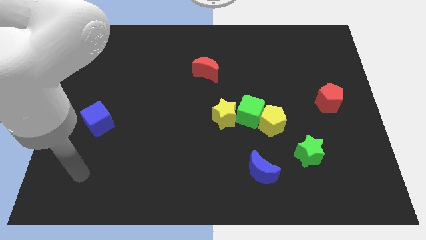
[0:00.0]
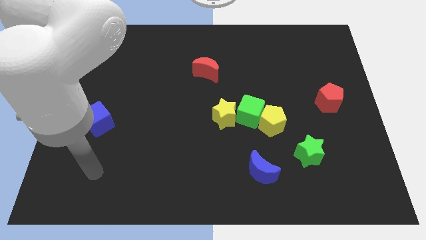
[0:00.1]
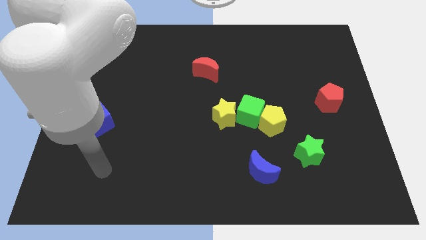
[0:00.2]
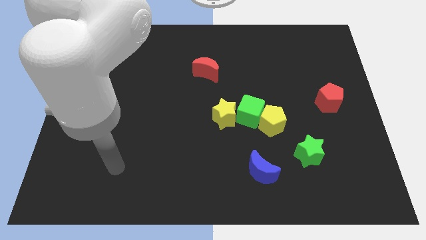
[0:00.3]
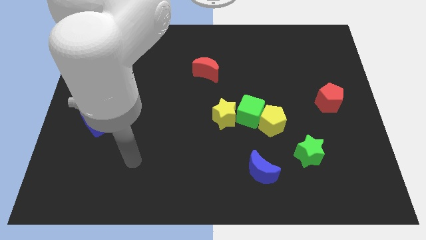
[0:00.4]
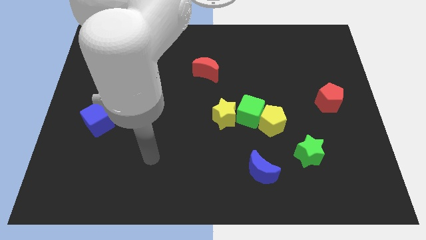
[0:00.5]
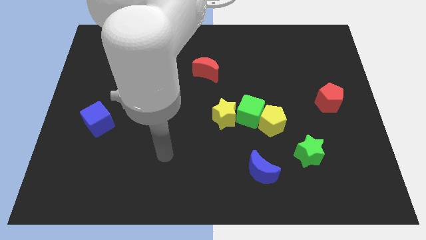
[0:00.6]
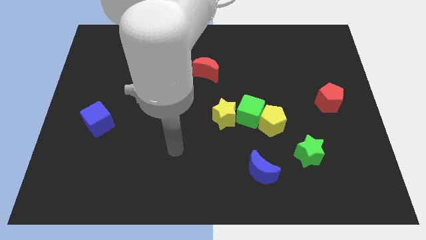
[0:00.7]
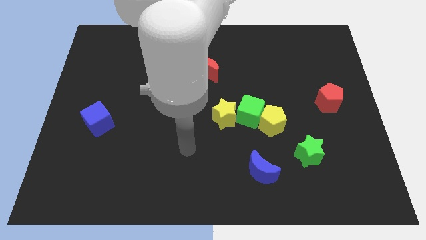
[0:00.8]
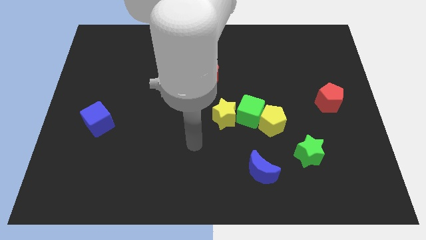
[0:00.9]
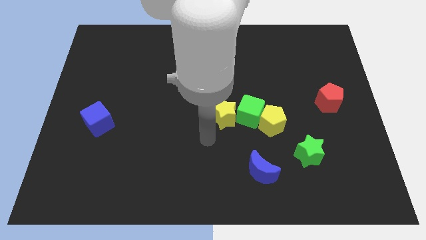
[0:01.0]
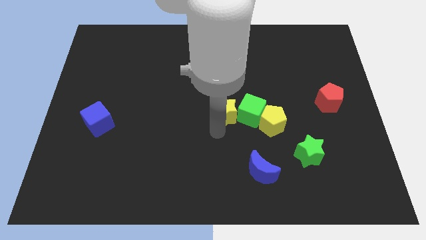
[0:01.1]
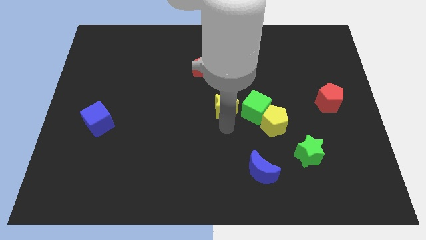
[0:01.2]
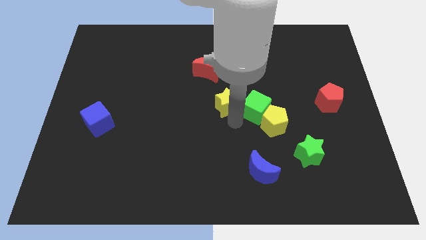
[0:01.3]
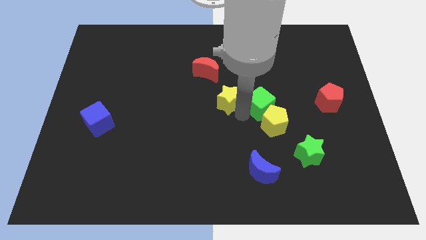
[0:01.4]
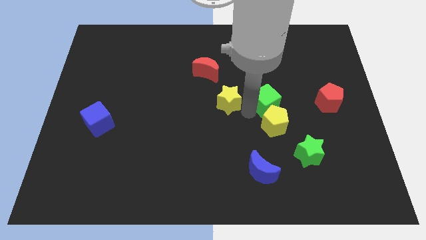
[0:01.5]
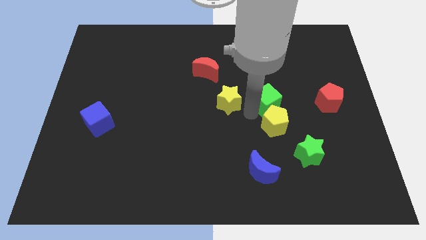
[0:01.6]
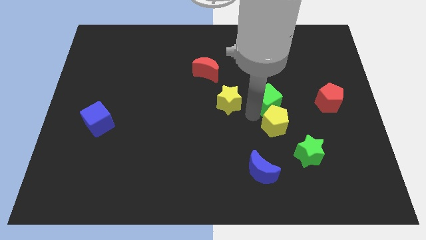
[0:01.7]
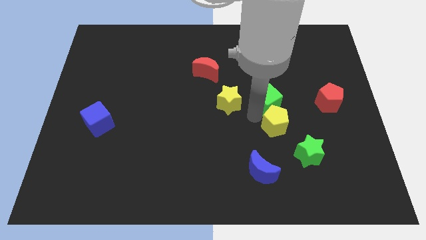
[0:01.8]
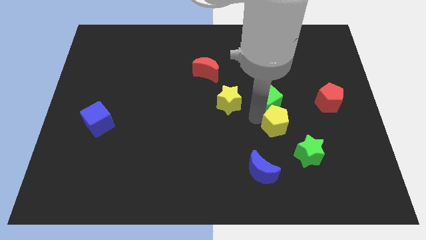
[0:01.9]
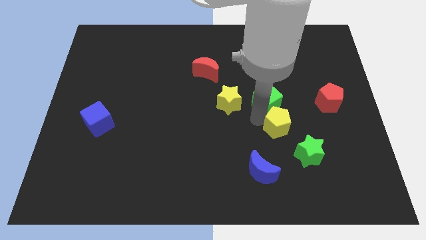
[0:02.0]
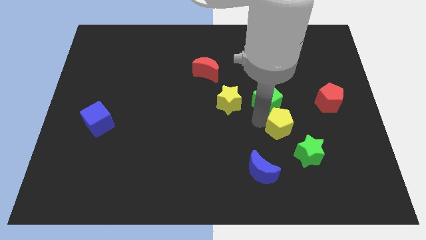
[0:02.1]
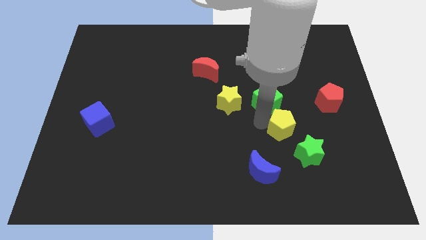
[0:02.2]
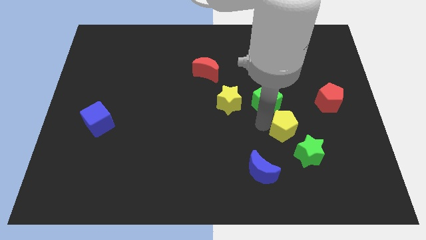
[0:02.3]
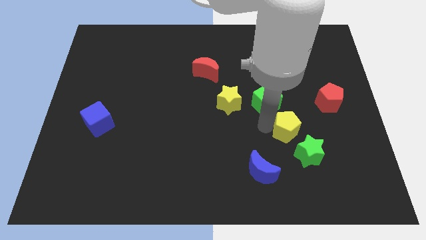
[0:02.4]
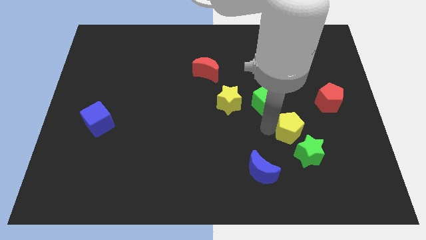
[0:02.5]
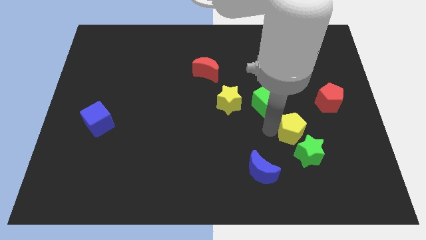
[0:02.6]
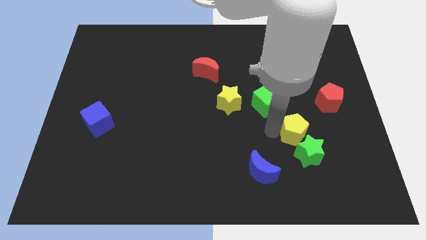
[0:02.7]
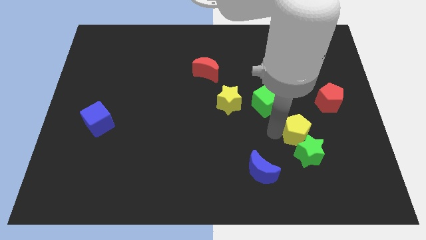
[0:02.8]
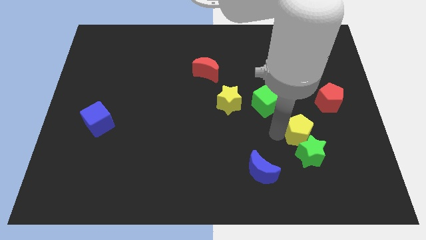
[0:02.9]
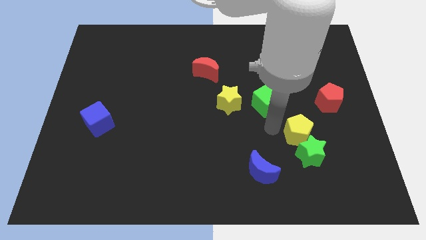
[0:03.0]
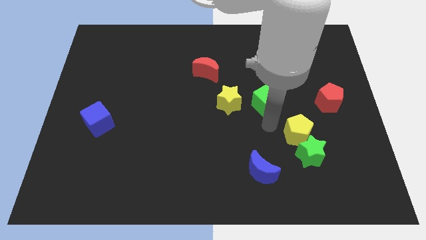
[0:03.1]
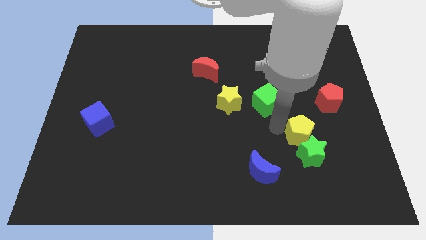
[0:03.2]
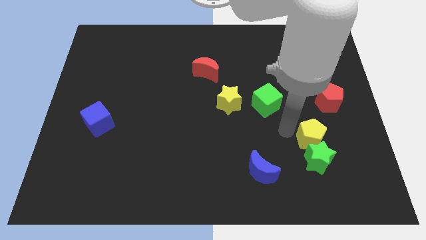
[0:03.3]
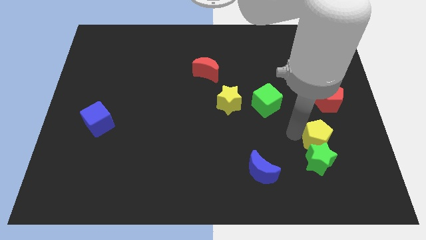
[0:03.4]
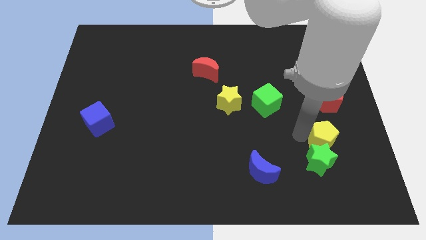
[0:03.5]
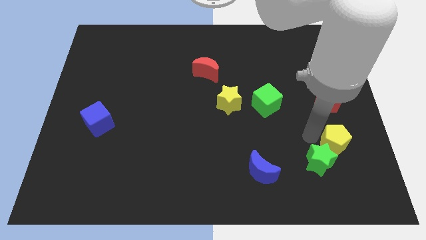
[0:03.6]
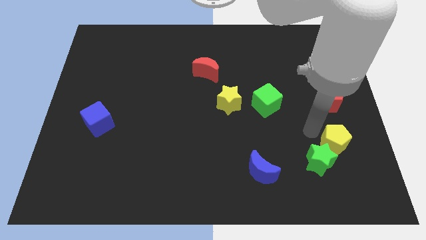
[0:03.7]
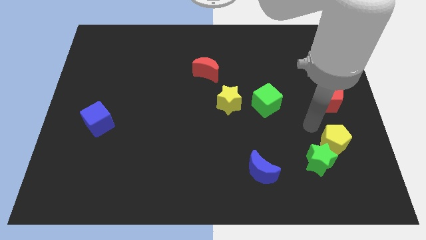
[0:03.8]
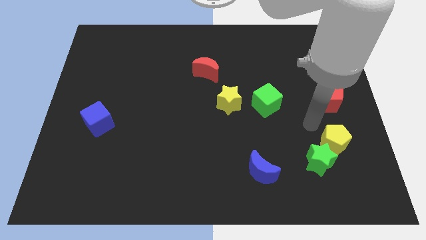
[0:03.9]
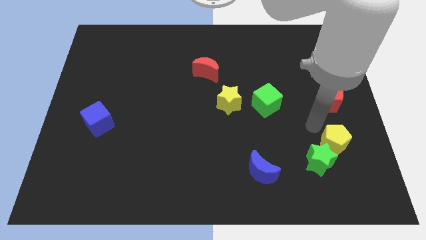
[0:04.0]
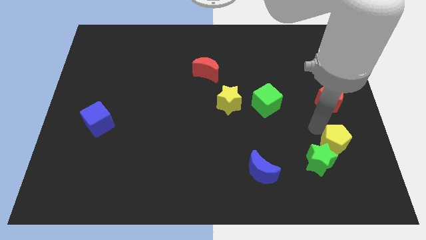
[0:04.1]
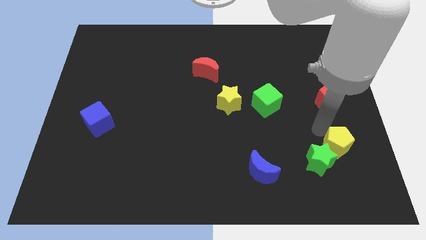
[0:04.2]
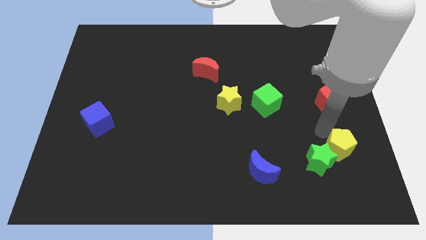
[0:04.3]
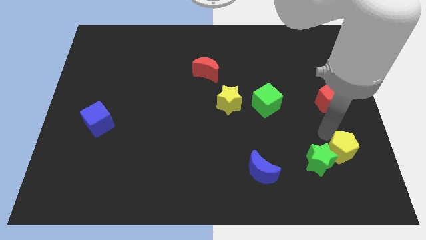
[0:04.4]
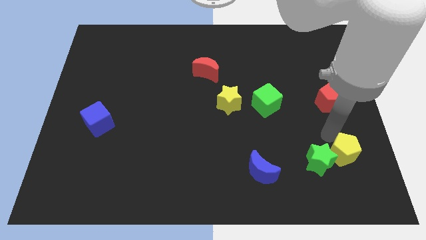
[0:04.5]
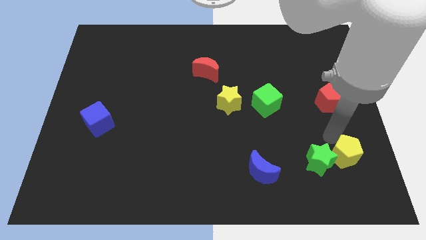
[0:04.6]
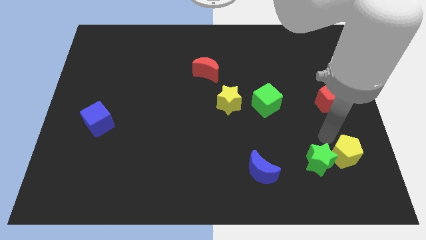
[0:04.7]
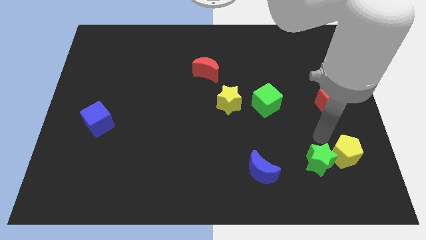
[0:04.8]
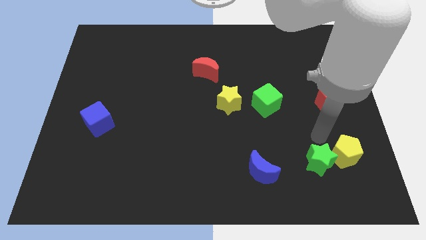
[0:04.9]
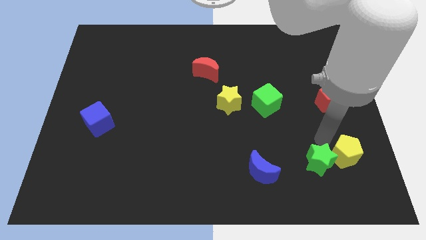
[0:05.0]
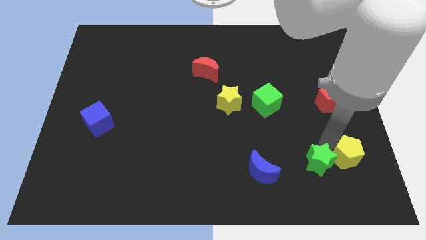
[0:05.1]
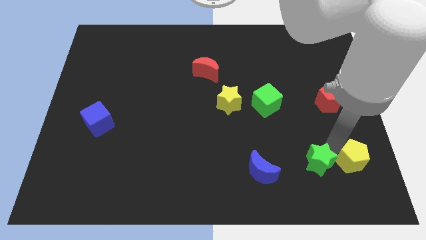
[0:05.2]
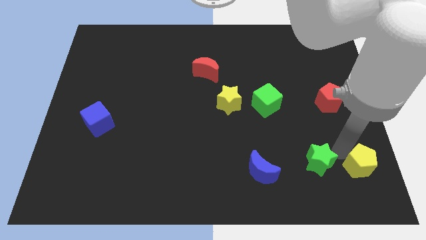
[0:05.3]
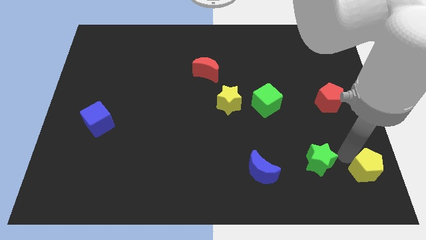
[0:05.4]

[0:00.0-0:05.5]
move the yellow pentagon to the bottom right corner

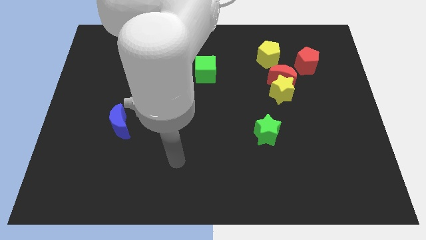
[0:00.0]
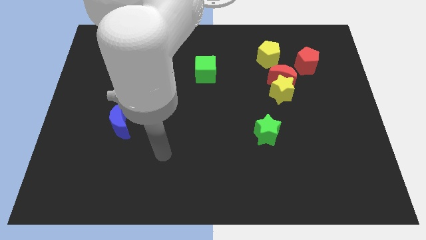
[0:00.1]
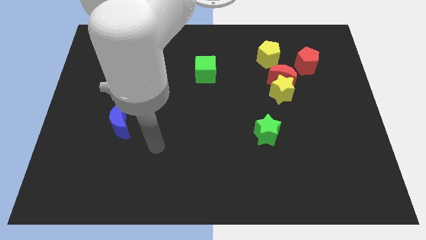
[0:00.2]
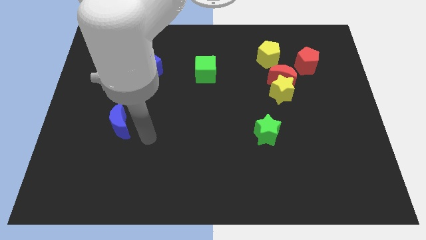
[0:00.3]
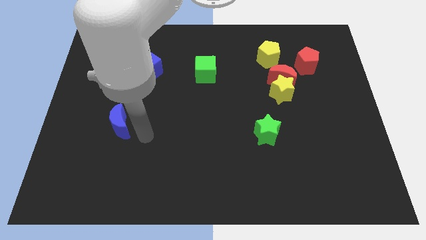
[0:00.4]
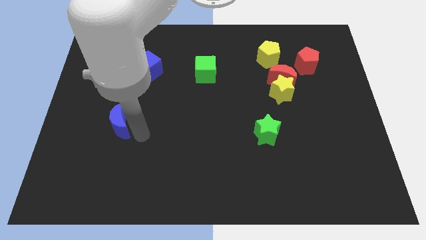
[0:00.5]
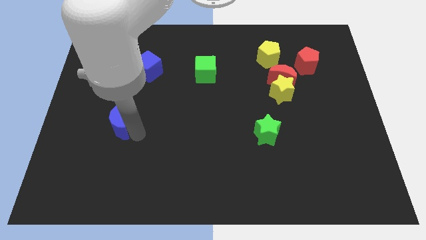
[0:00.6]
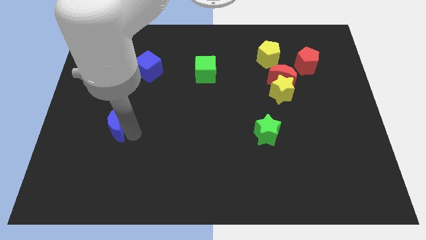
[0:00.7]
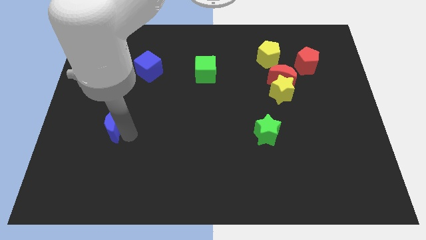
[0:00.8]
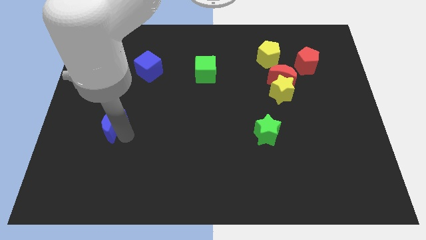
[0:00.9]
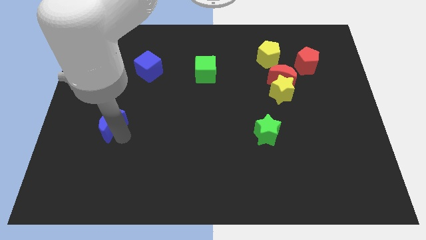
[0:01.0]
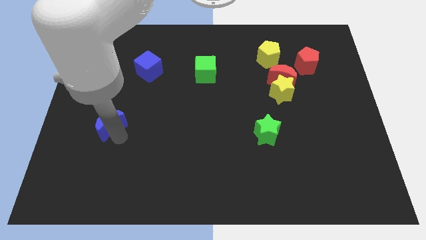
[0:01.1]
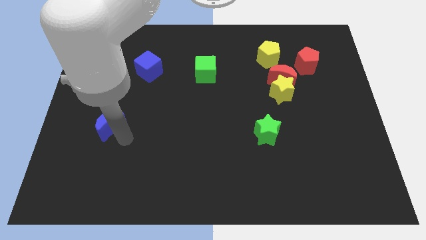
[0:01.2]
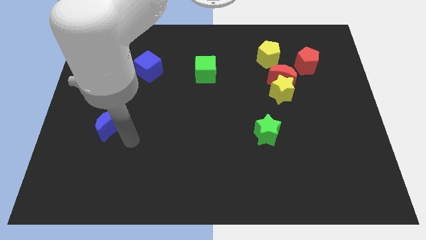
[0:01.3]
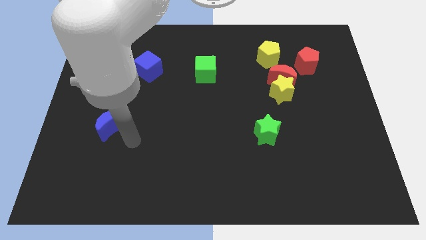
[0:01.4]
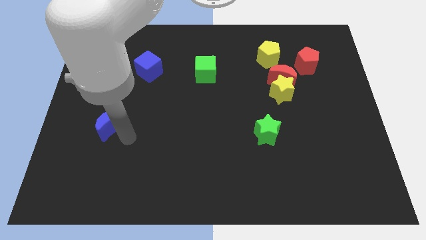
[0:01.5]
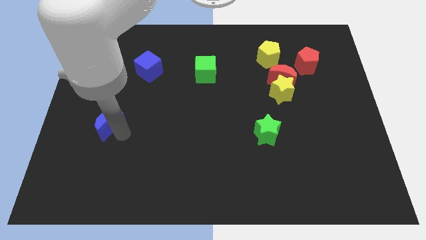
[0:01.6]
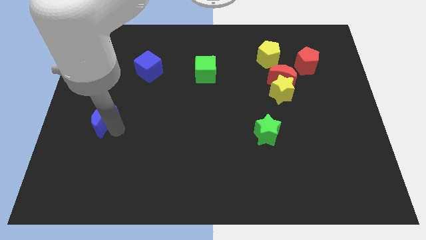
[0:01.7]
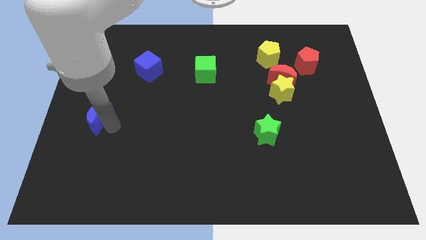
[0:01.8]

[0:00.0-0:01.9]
move the blue moon to the left side
